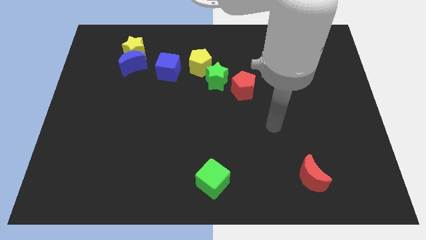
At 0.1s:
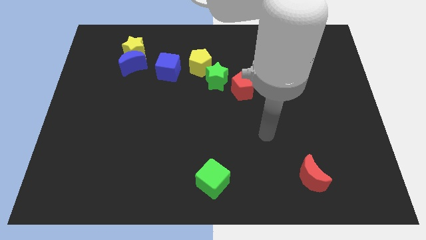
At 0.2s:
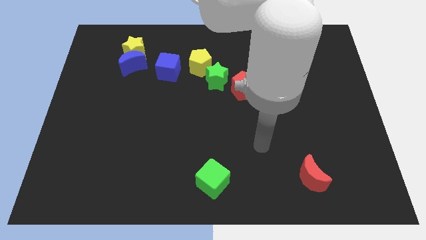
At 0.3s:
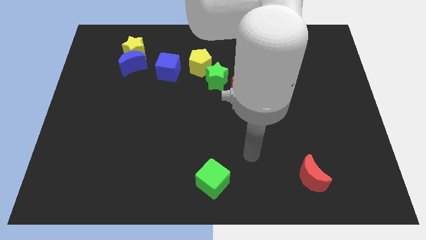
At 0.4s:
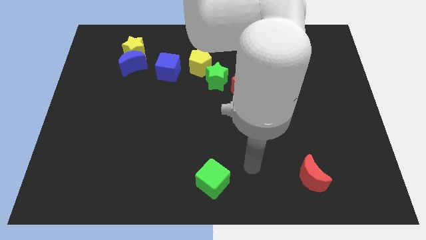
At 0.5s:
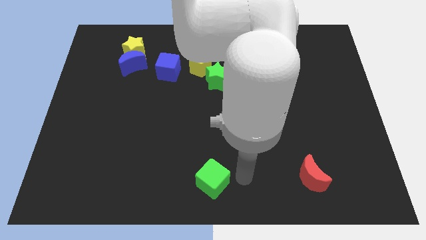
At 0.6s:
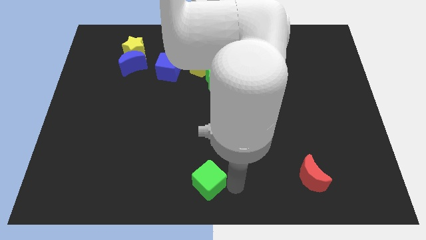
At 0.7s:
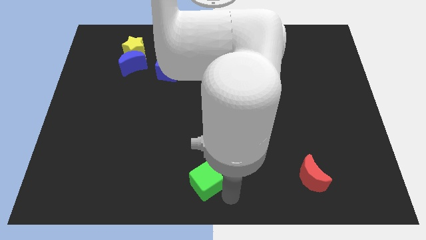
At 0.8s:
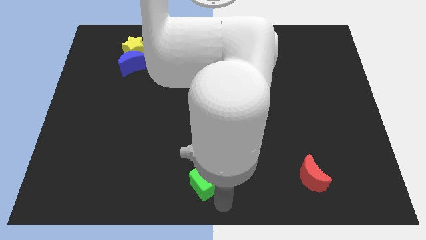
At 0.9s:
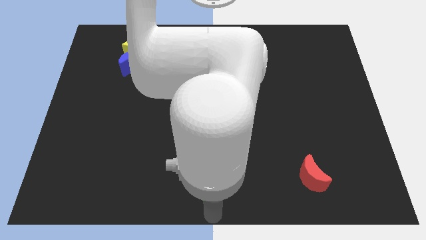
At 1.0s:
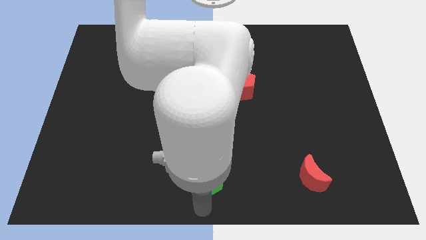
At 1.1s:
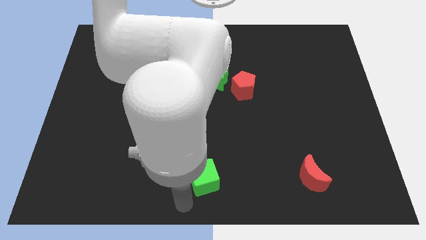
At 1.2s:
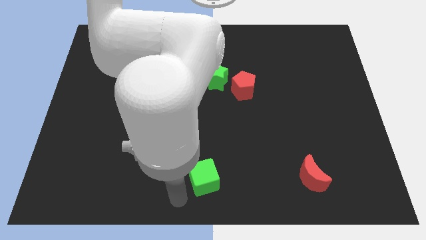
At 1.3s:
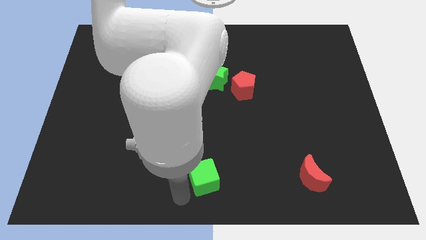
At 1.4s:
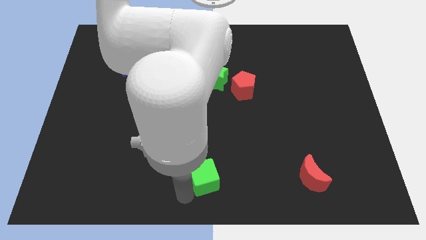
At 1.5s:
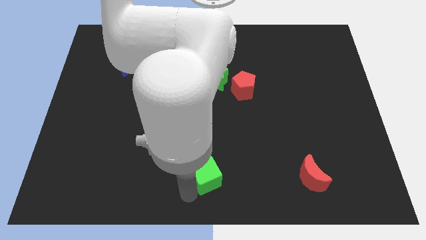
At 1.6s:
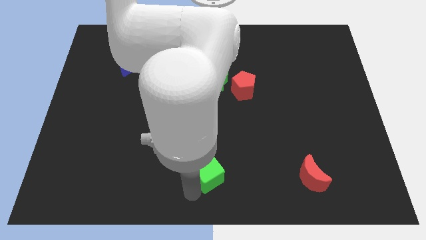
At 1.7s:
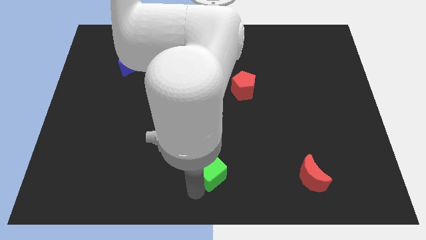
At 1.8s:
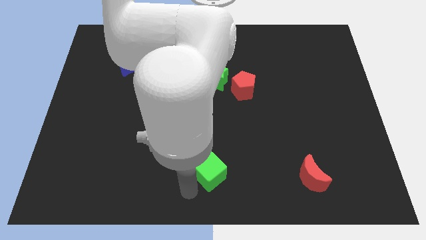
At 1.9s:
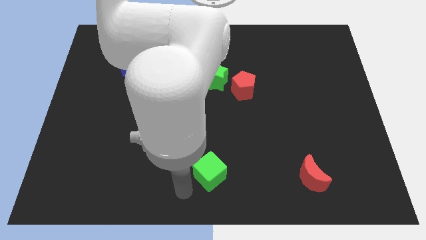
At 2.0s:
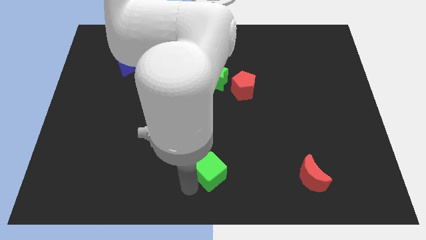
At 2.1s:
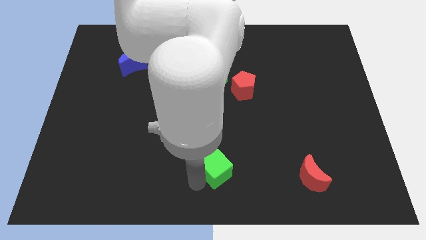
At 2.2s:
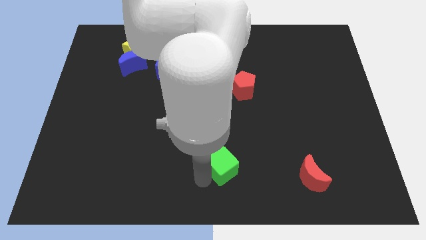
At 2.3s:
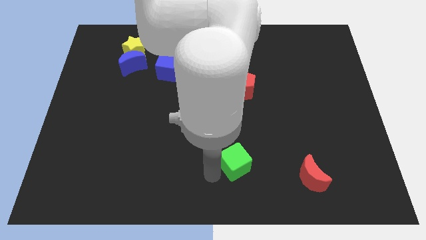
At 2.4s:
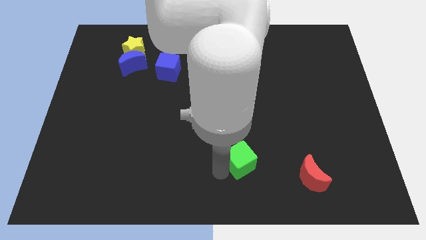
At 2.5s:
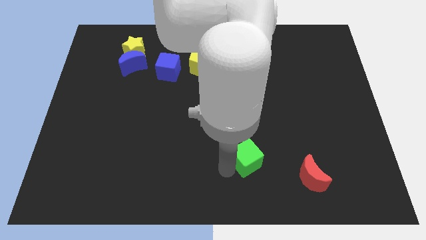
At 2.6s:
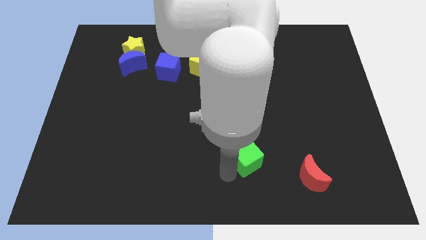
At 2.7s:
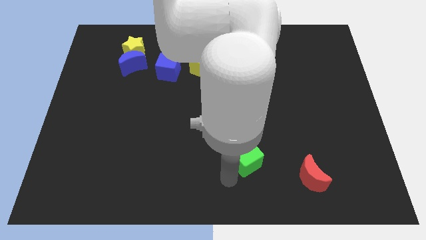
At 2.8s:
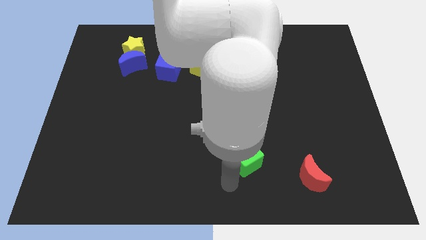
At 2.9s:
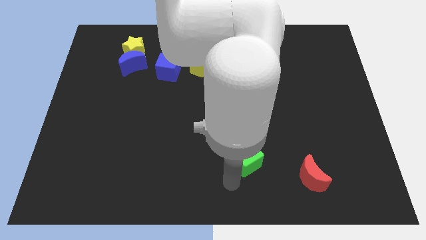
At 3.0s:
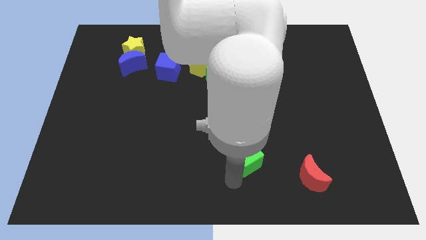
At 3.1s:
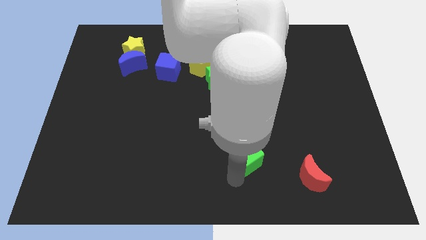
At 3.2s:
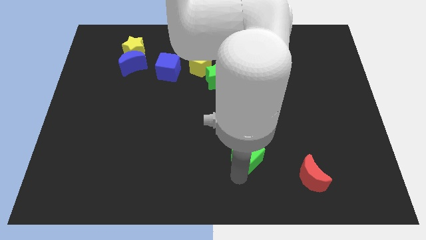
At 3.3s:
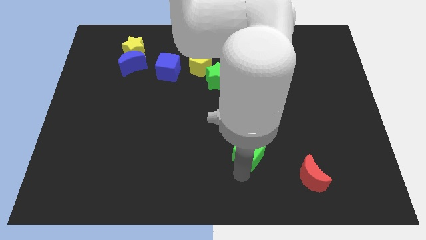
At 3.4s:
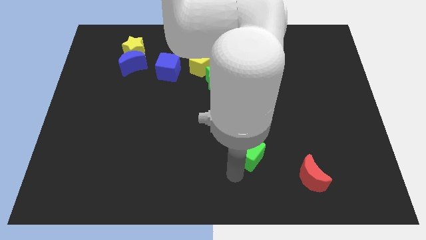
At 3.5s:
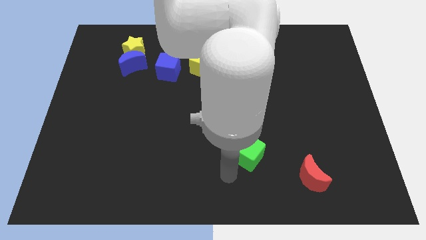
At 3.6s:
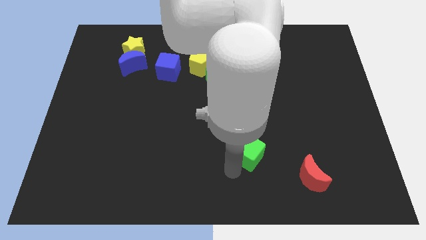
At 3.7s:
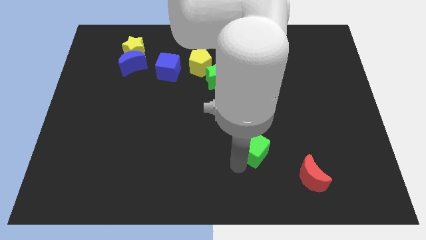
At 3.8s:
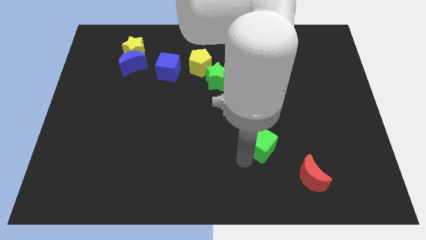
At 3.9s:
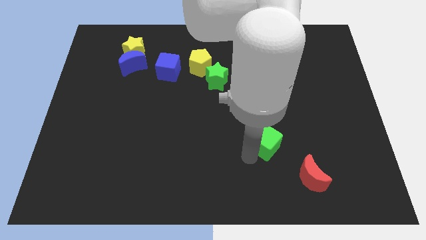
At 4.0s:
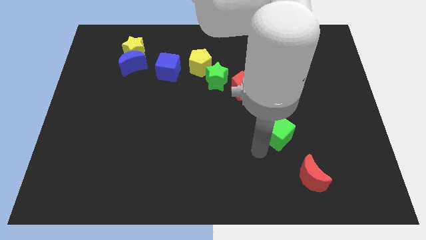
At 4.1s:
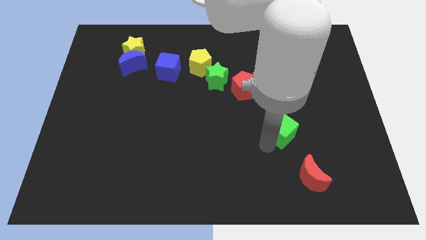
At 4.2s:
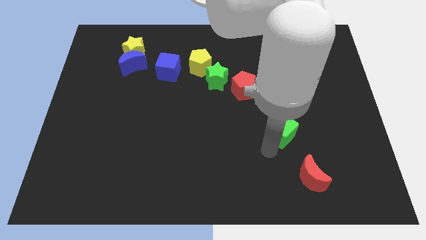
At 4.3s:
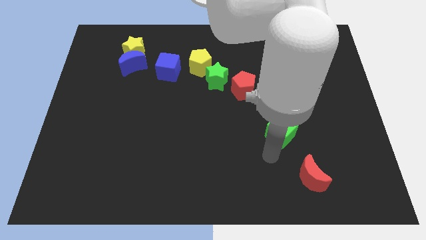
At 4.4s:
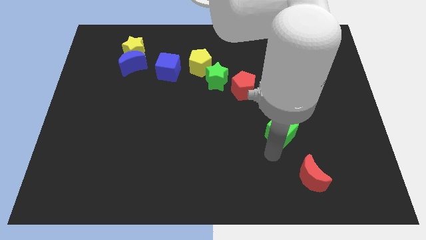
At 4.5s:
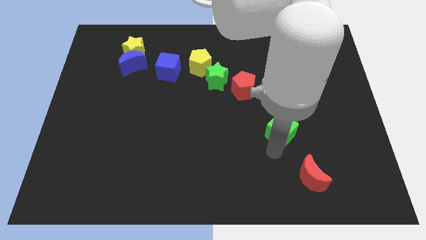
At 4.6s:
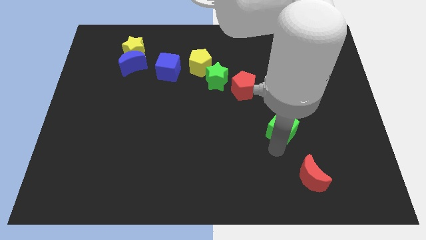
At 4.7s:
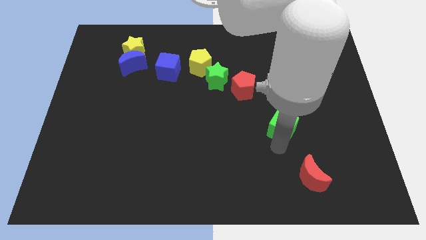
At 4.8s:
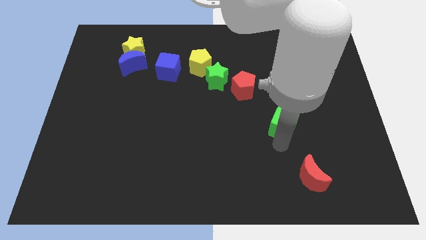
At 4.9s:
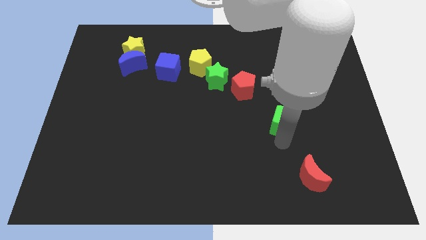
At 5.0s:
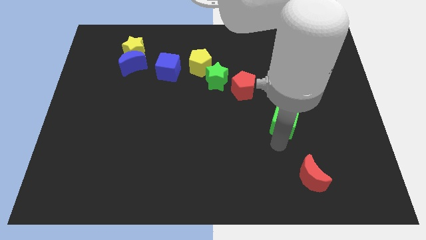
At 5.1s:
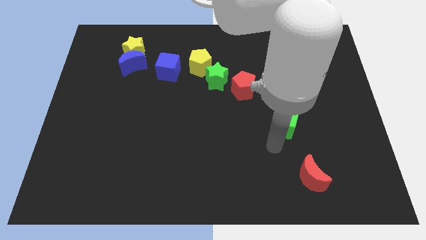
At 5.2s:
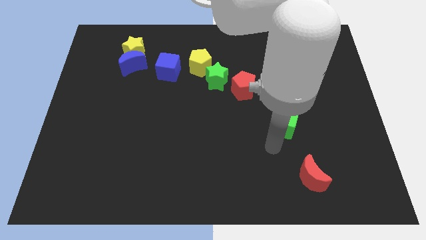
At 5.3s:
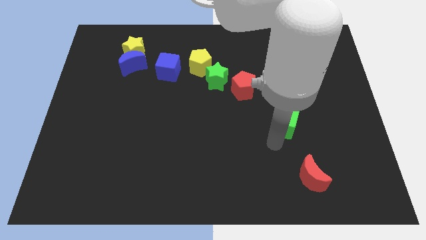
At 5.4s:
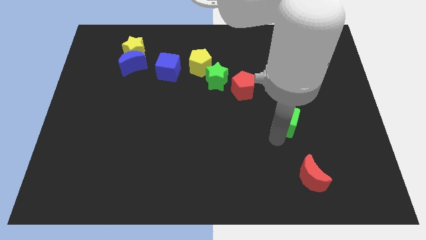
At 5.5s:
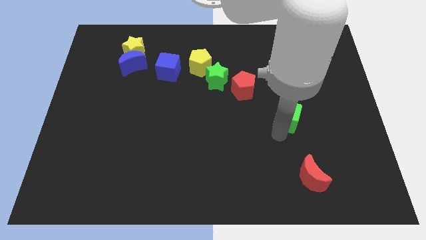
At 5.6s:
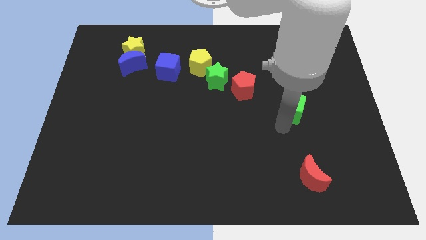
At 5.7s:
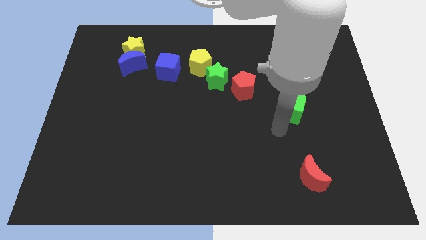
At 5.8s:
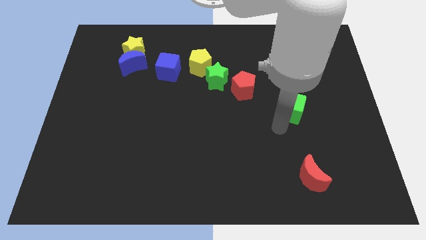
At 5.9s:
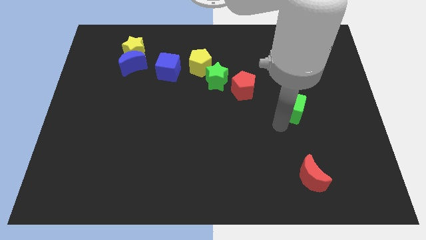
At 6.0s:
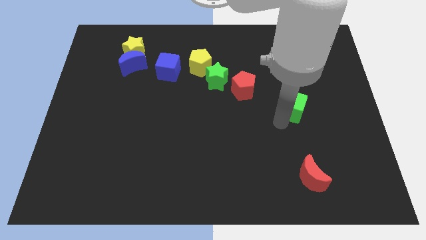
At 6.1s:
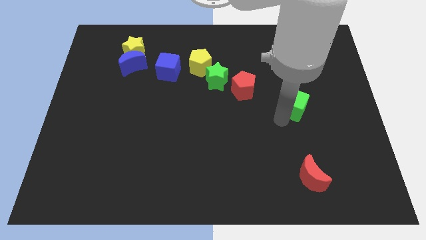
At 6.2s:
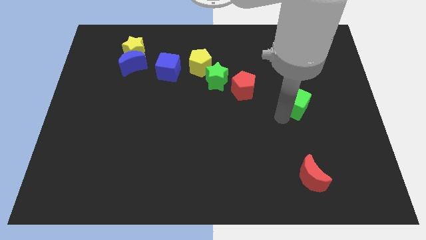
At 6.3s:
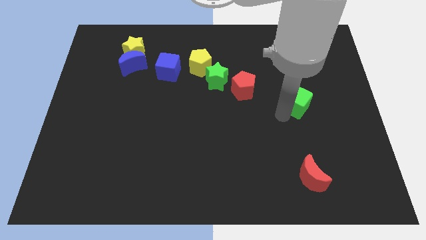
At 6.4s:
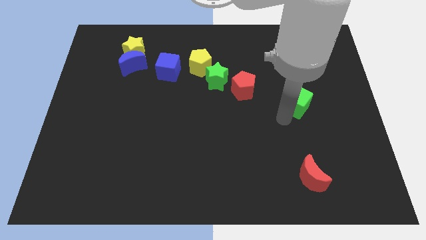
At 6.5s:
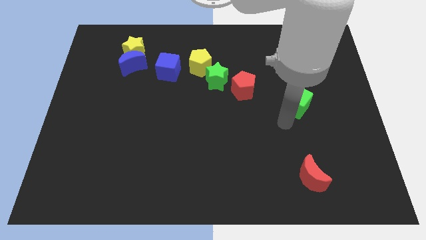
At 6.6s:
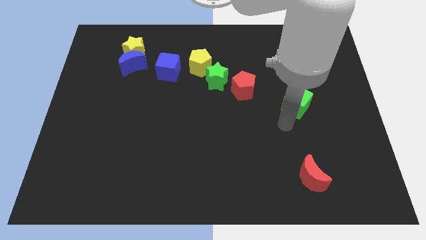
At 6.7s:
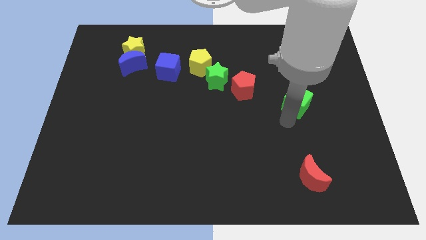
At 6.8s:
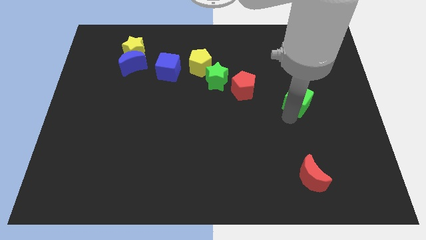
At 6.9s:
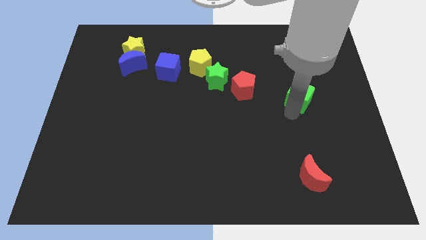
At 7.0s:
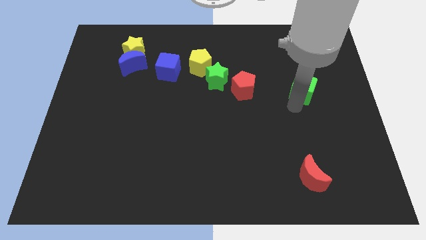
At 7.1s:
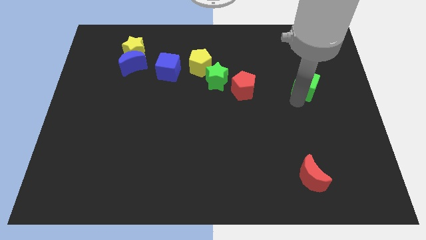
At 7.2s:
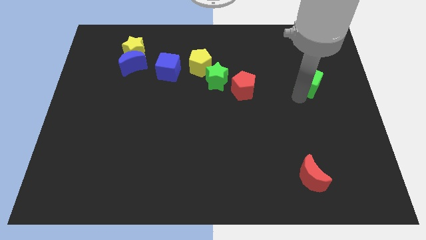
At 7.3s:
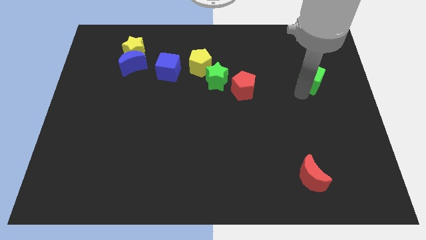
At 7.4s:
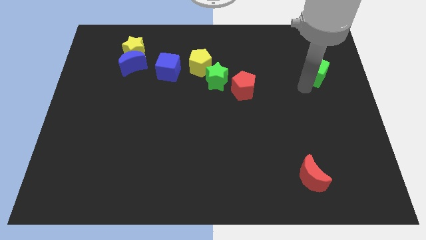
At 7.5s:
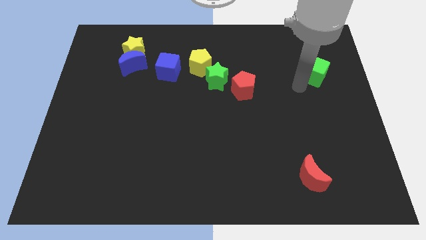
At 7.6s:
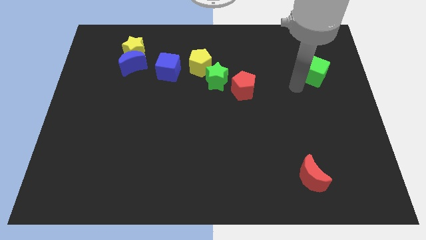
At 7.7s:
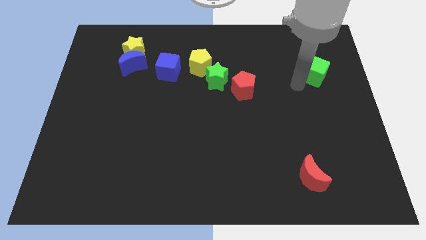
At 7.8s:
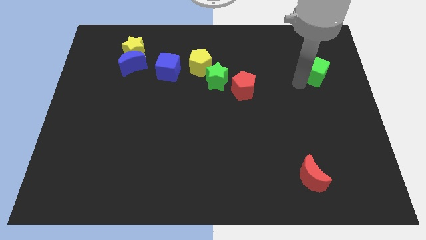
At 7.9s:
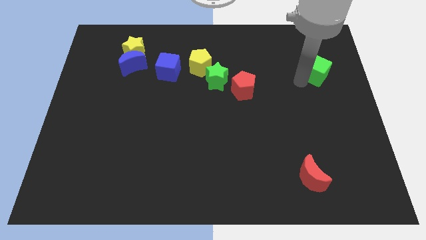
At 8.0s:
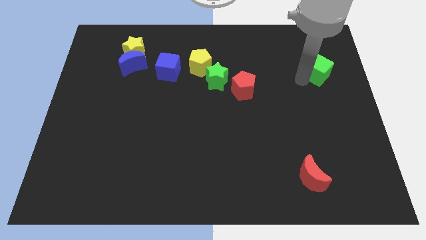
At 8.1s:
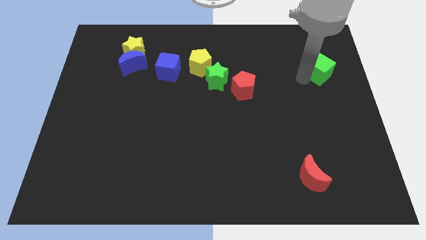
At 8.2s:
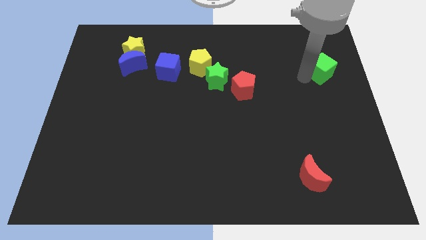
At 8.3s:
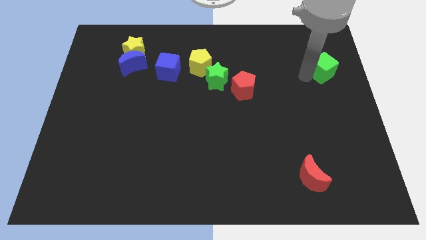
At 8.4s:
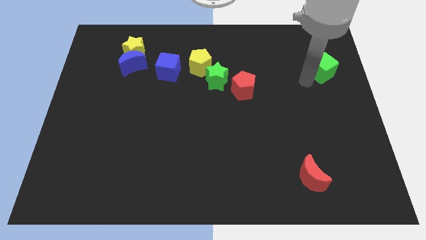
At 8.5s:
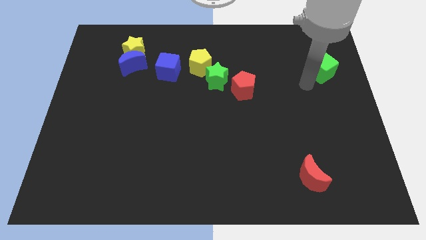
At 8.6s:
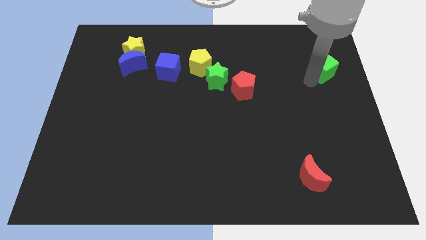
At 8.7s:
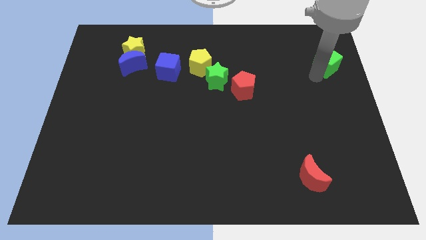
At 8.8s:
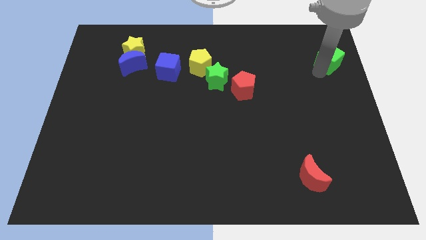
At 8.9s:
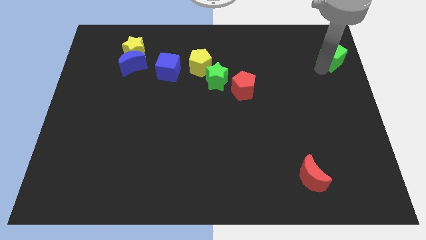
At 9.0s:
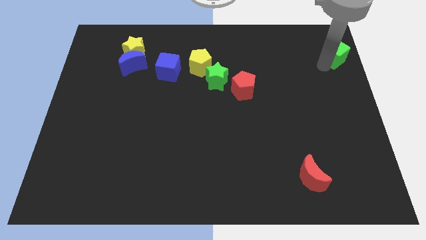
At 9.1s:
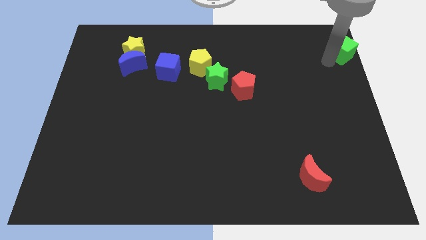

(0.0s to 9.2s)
put the green cube to the top right of the board
